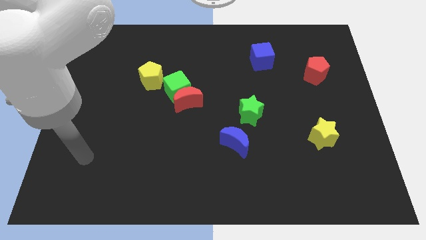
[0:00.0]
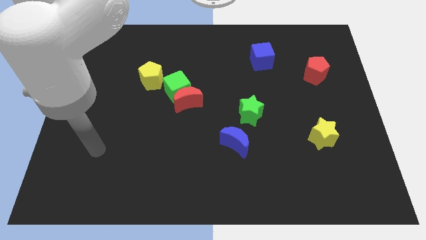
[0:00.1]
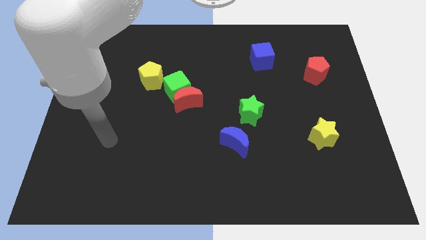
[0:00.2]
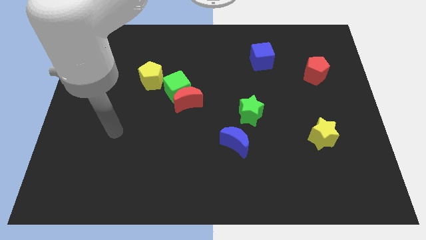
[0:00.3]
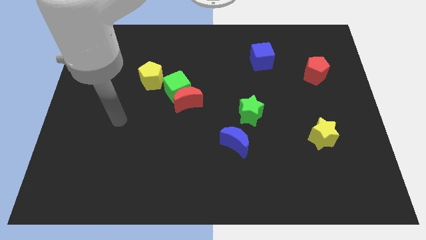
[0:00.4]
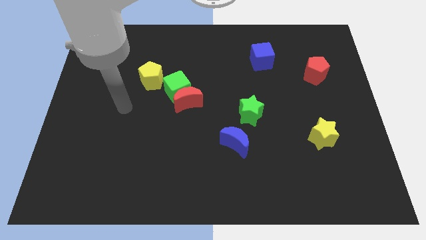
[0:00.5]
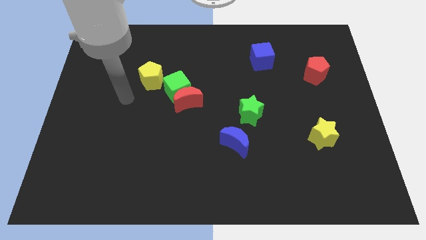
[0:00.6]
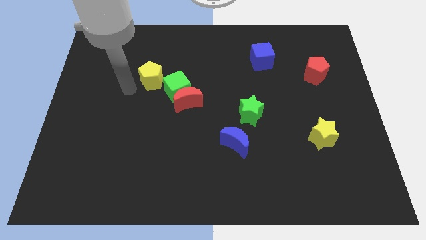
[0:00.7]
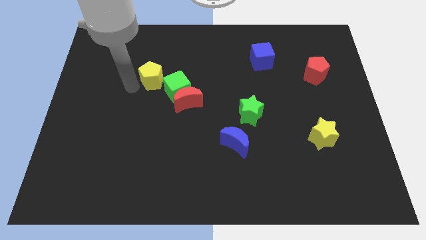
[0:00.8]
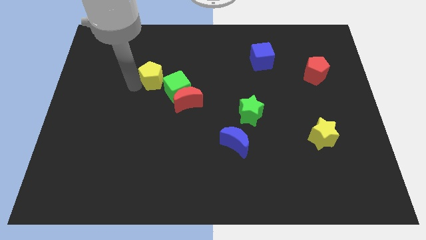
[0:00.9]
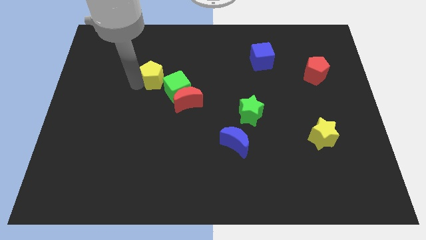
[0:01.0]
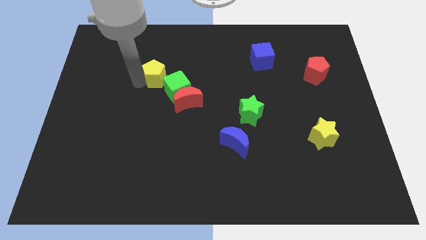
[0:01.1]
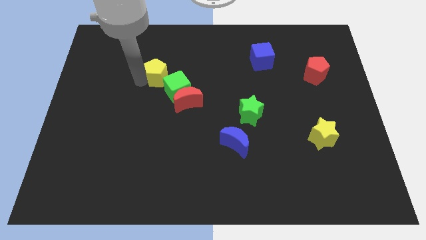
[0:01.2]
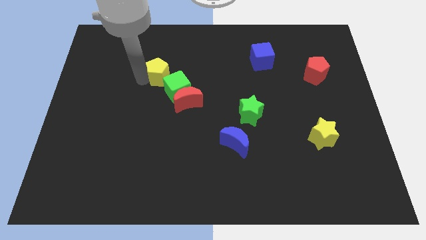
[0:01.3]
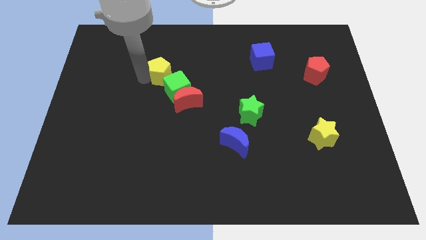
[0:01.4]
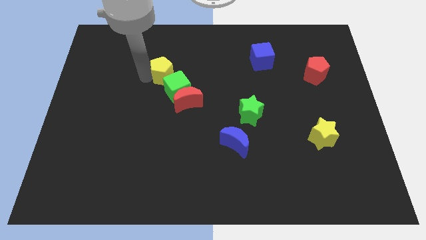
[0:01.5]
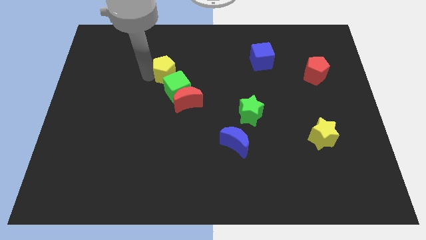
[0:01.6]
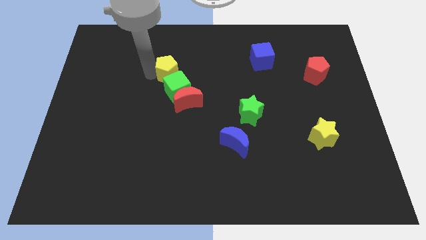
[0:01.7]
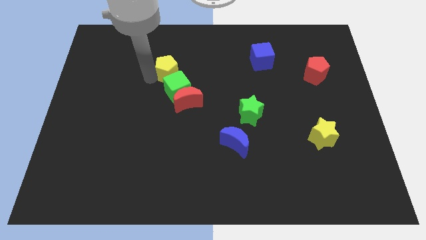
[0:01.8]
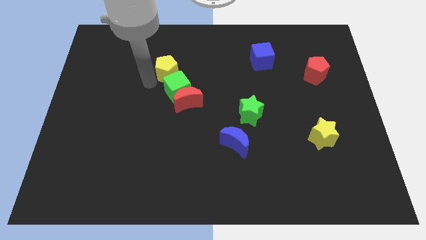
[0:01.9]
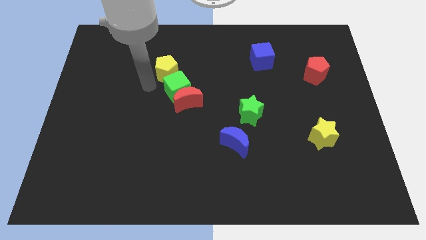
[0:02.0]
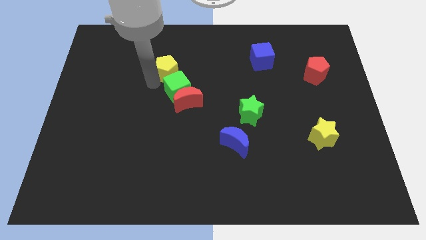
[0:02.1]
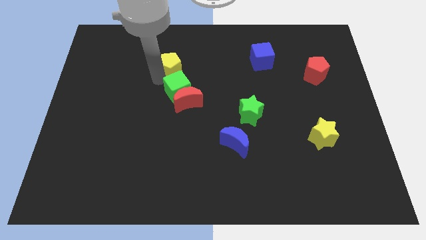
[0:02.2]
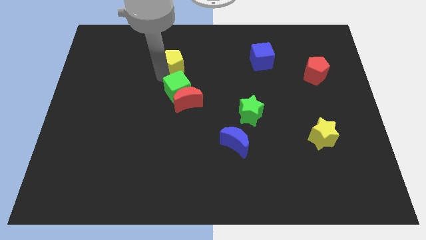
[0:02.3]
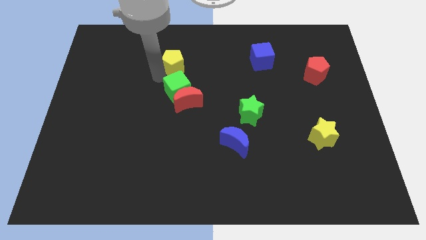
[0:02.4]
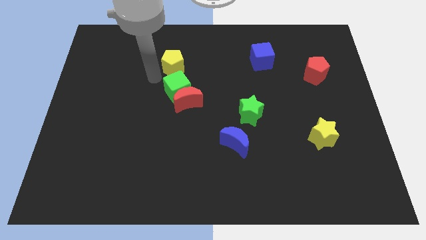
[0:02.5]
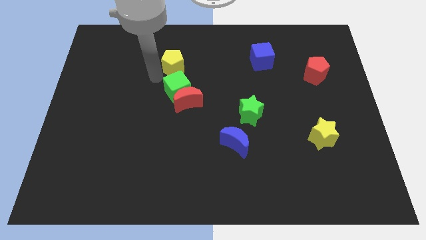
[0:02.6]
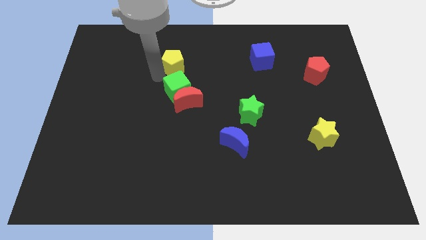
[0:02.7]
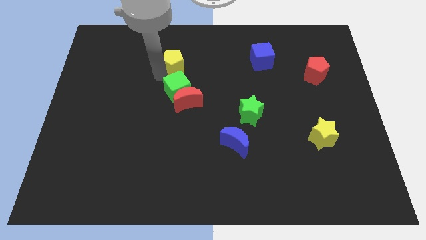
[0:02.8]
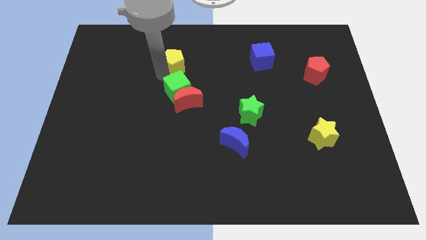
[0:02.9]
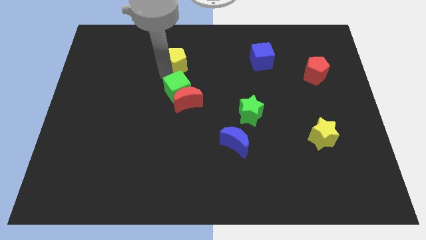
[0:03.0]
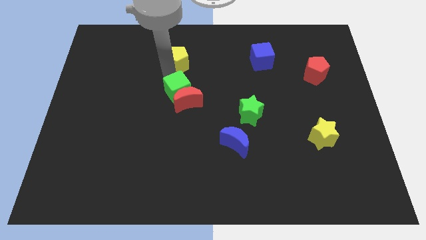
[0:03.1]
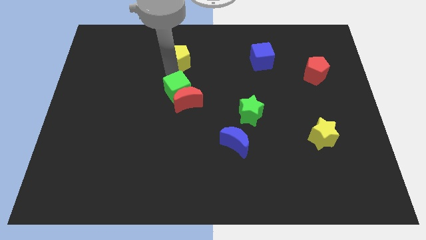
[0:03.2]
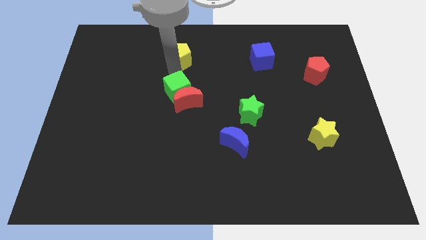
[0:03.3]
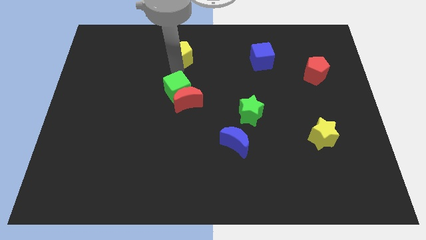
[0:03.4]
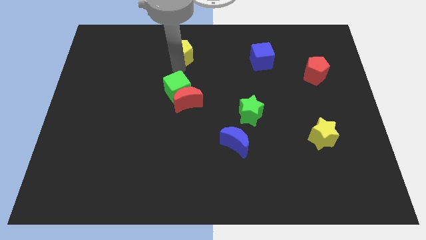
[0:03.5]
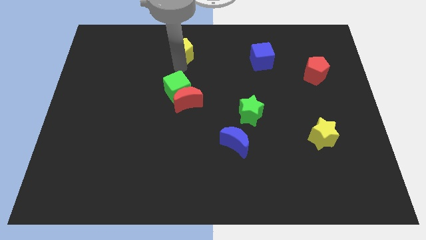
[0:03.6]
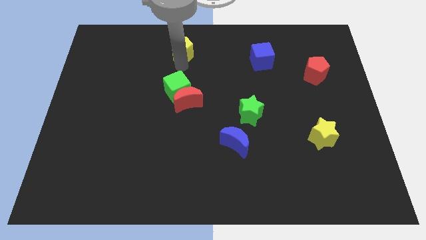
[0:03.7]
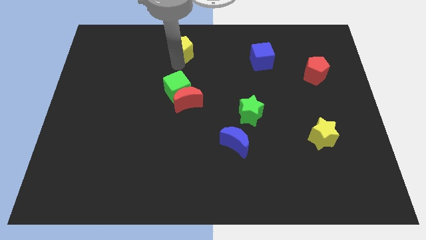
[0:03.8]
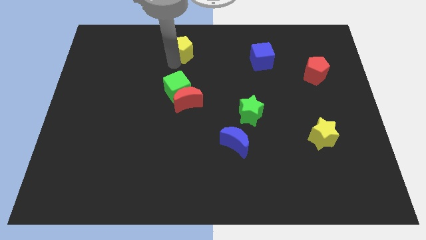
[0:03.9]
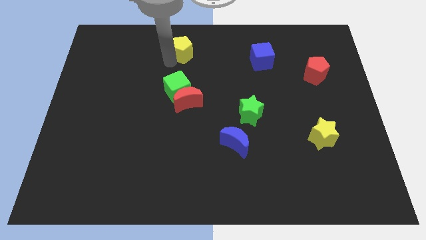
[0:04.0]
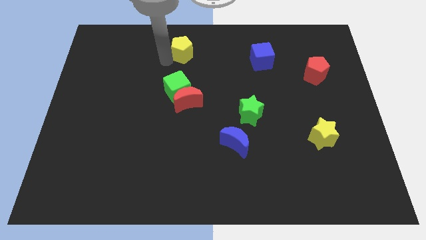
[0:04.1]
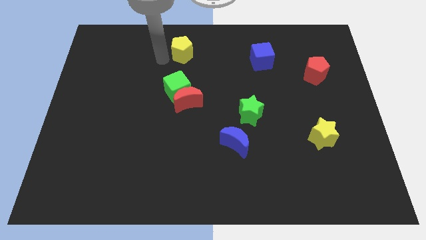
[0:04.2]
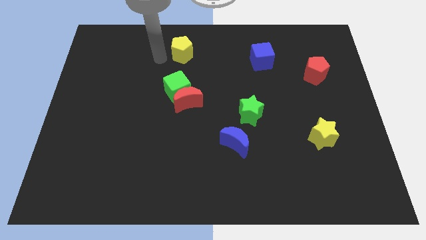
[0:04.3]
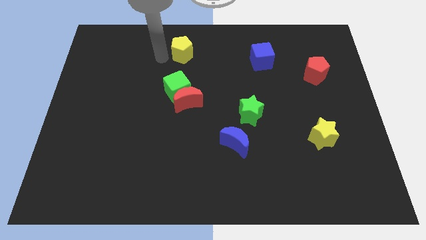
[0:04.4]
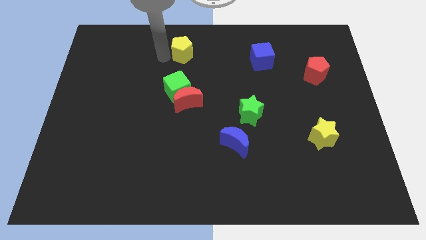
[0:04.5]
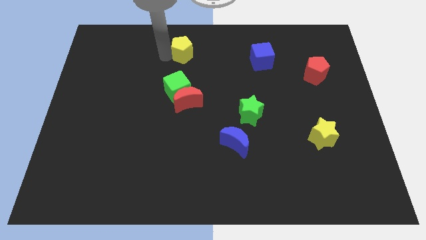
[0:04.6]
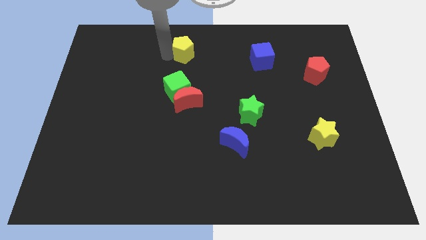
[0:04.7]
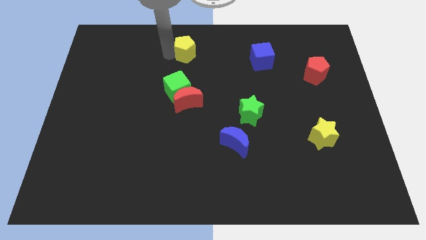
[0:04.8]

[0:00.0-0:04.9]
push the yellow pentagon to the top side

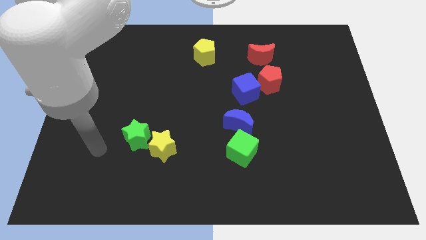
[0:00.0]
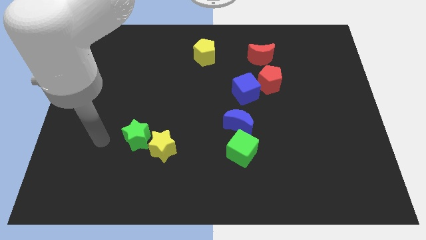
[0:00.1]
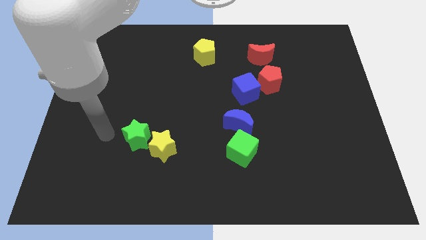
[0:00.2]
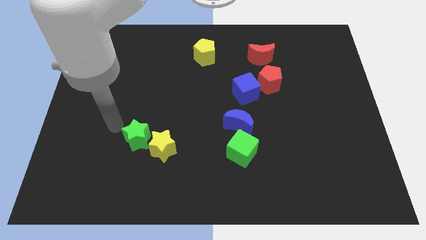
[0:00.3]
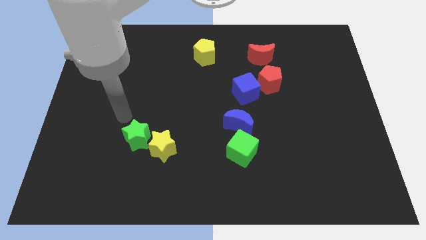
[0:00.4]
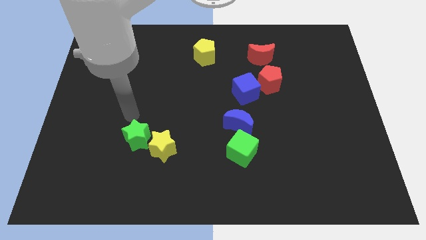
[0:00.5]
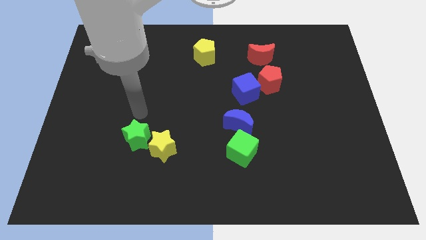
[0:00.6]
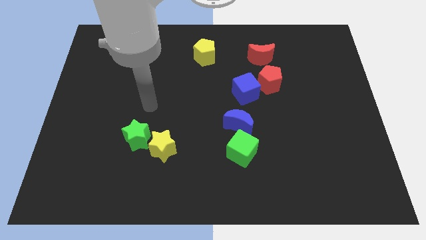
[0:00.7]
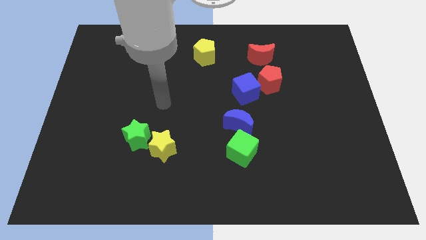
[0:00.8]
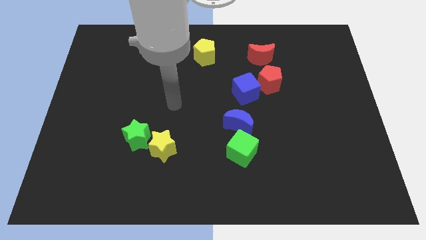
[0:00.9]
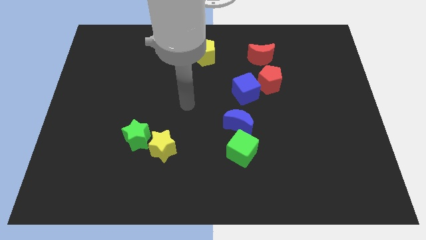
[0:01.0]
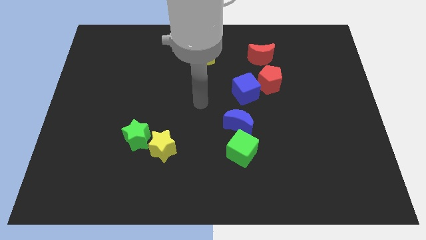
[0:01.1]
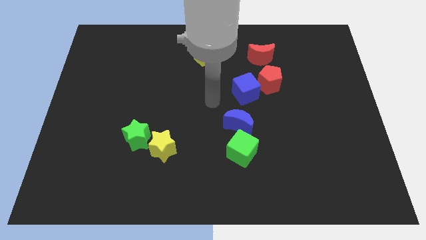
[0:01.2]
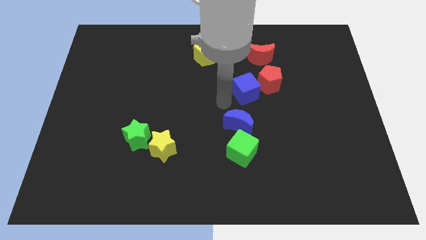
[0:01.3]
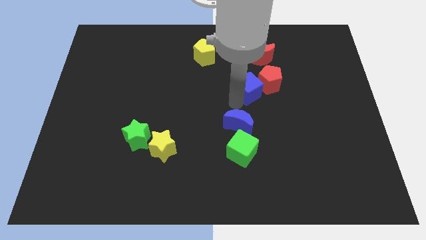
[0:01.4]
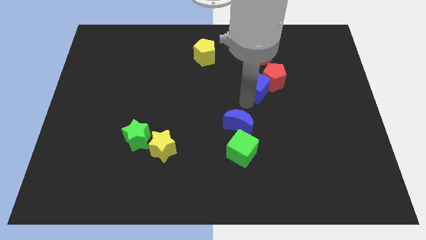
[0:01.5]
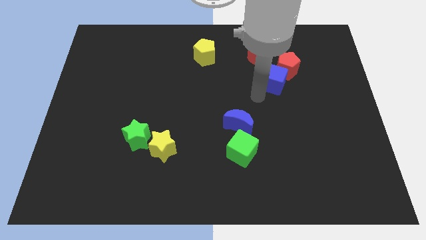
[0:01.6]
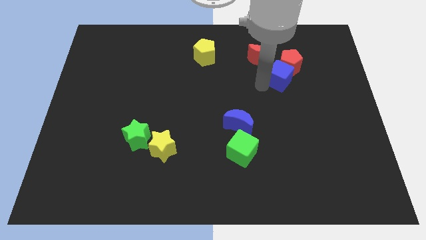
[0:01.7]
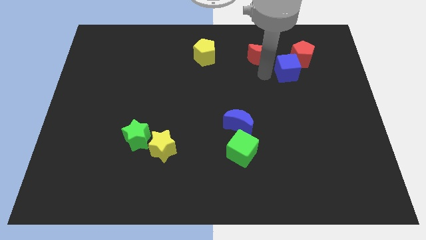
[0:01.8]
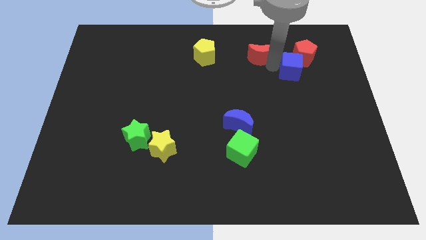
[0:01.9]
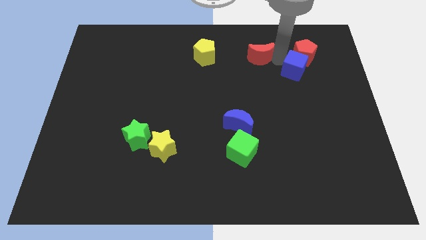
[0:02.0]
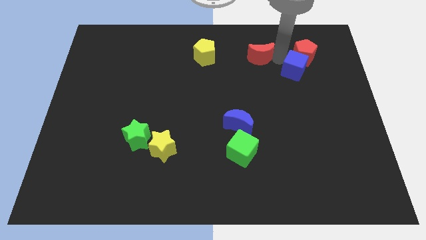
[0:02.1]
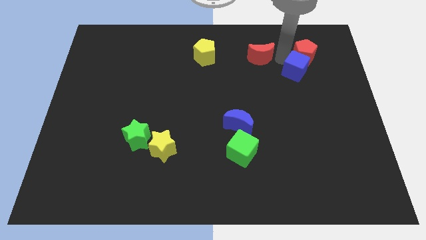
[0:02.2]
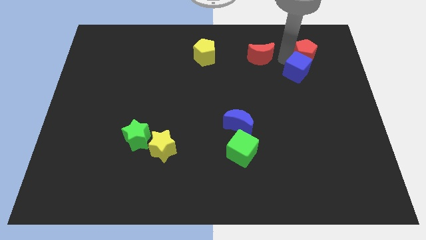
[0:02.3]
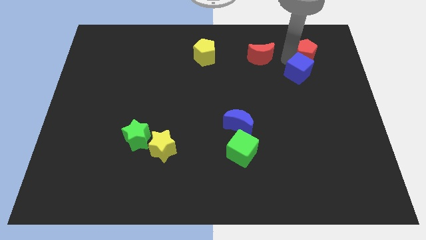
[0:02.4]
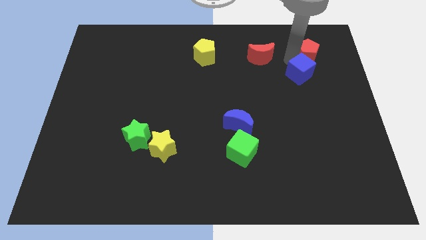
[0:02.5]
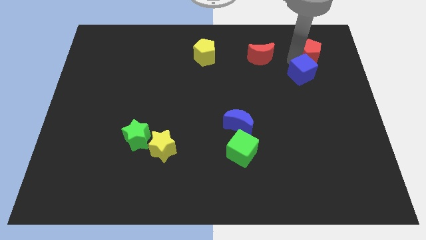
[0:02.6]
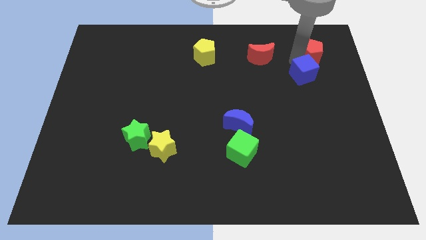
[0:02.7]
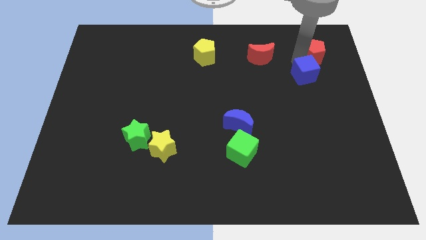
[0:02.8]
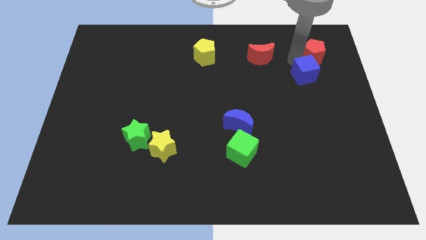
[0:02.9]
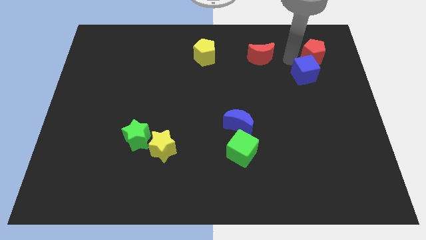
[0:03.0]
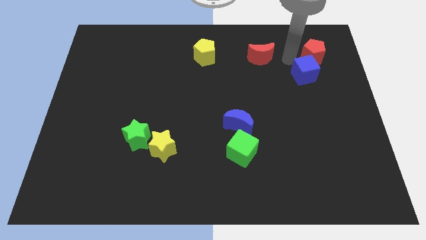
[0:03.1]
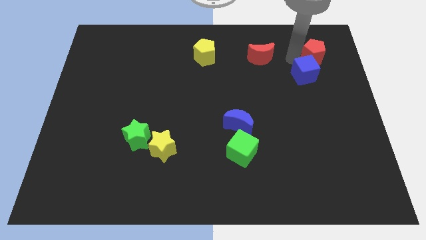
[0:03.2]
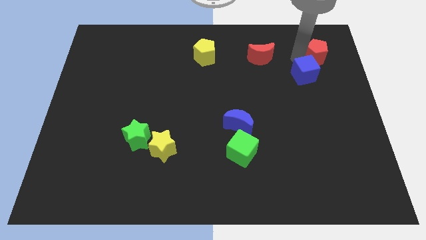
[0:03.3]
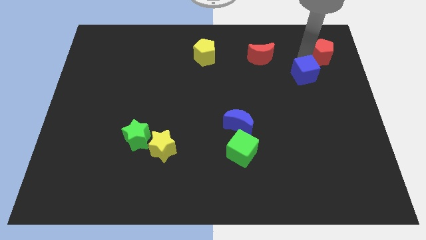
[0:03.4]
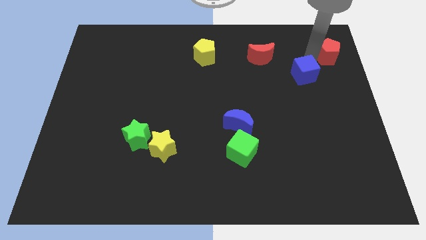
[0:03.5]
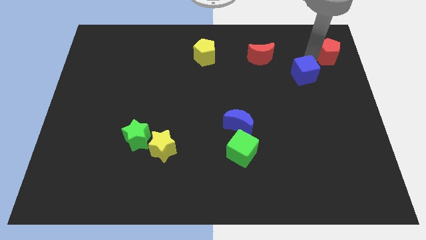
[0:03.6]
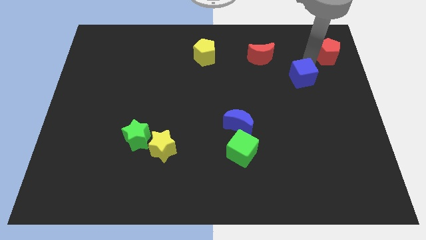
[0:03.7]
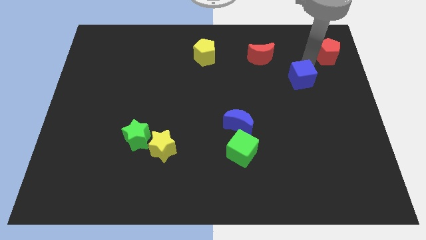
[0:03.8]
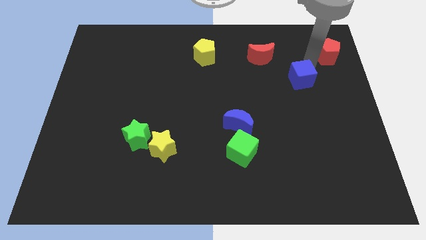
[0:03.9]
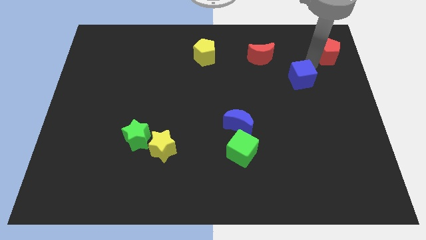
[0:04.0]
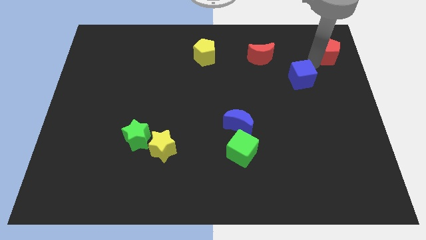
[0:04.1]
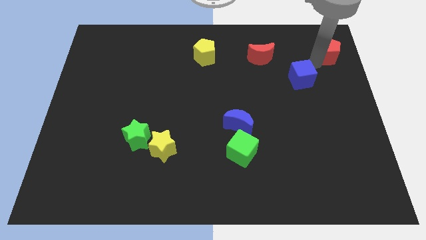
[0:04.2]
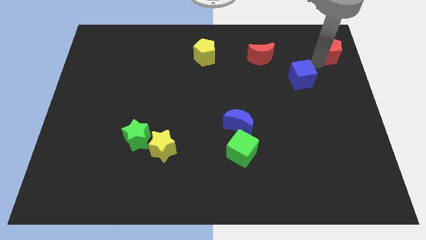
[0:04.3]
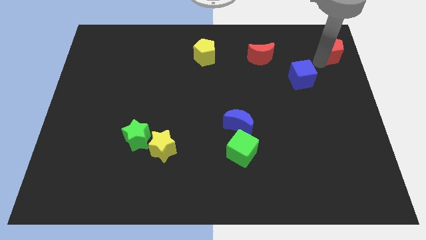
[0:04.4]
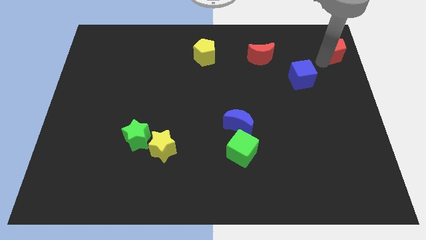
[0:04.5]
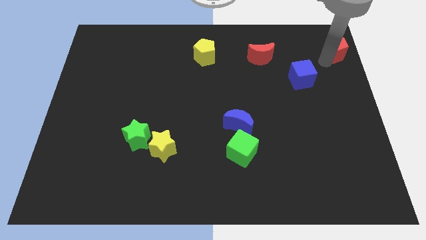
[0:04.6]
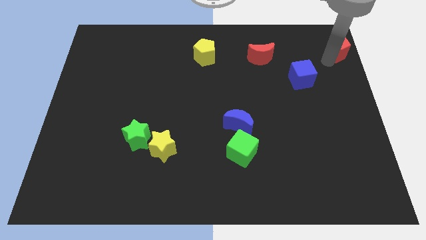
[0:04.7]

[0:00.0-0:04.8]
move the red pentagon to the top right
